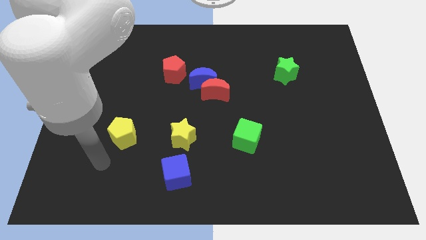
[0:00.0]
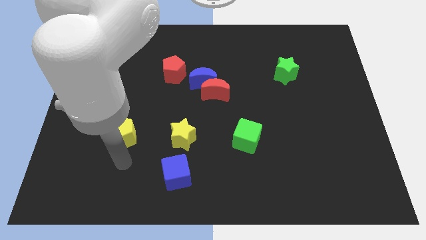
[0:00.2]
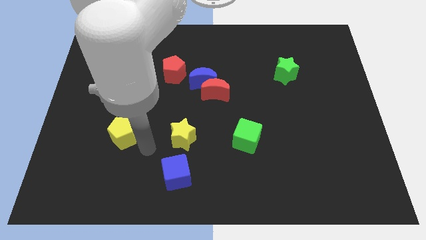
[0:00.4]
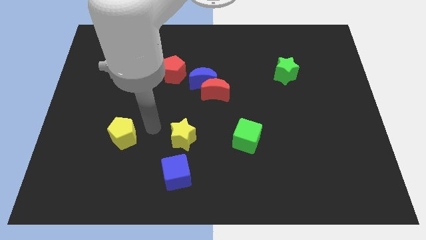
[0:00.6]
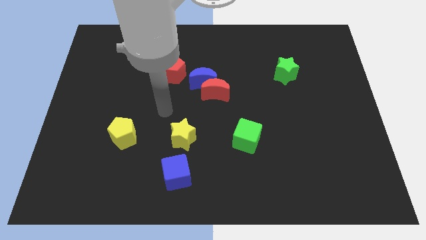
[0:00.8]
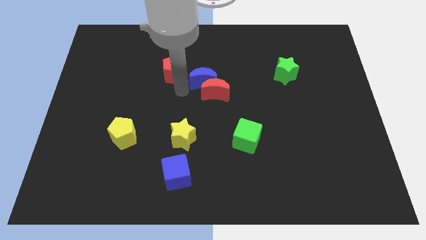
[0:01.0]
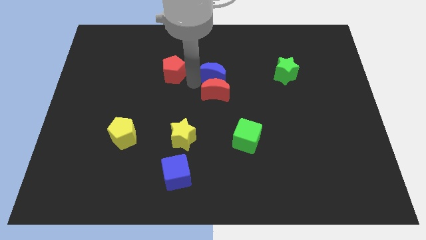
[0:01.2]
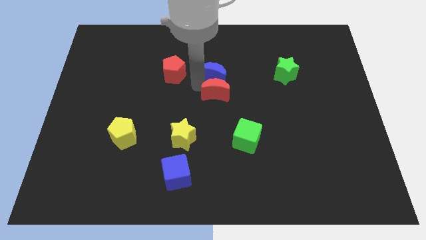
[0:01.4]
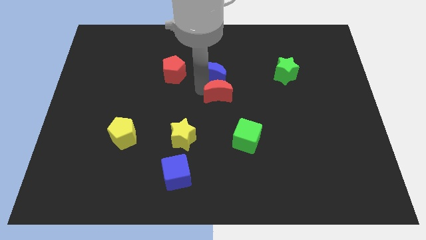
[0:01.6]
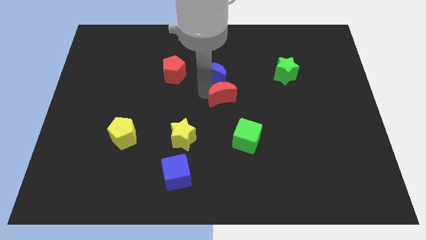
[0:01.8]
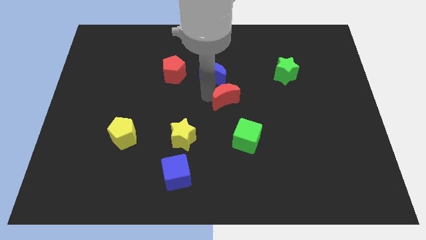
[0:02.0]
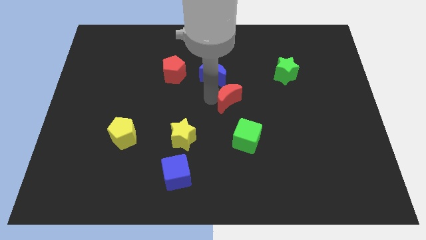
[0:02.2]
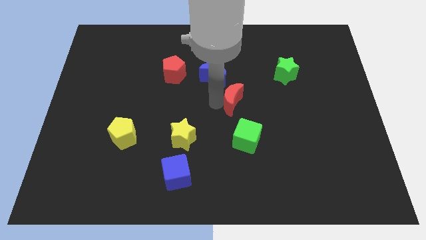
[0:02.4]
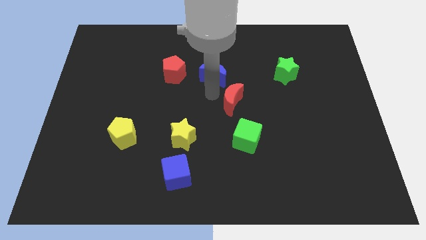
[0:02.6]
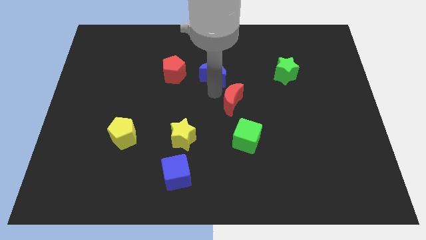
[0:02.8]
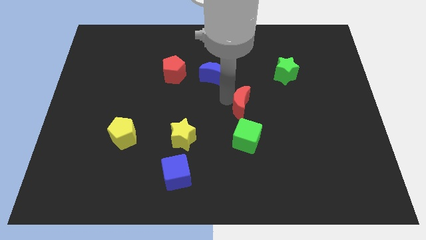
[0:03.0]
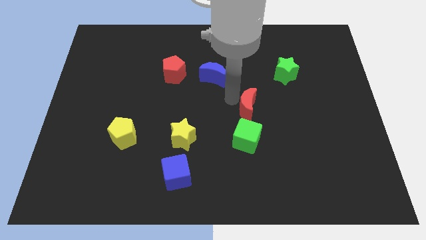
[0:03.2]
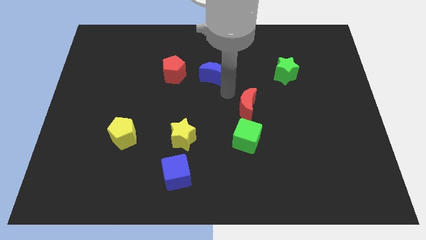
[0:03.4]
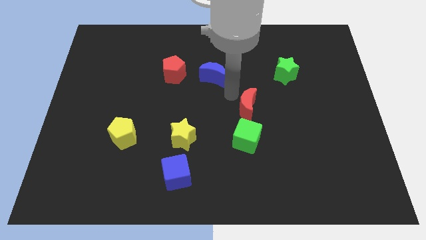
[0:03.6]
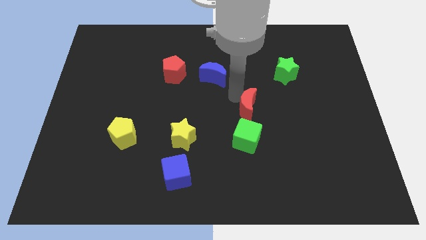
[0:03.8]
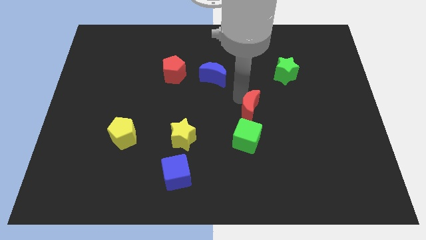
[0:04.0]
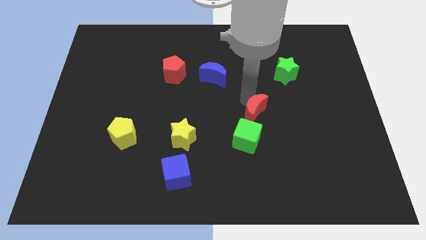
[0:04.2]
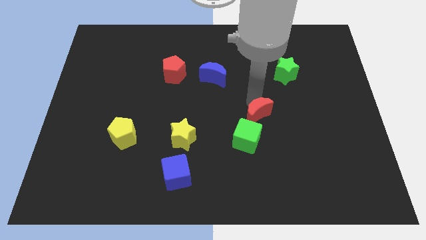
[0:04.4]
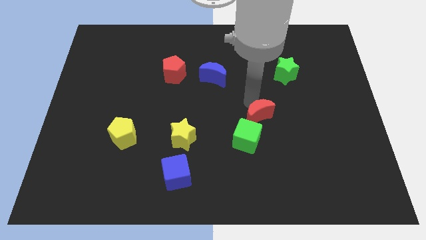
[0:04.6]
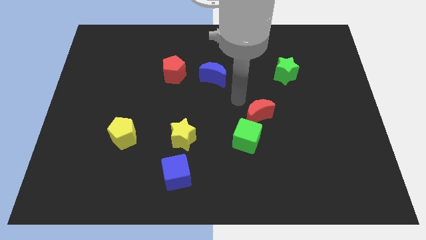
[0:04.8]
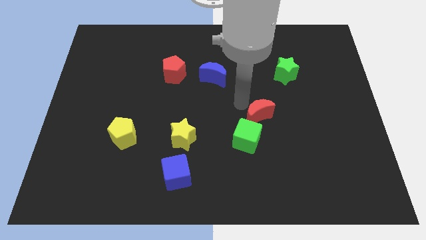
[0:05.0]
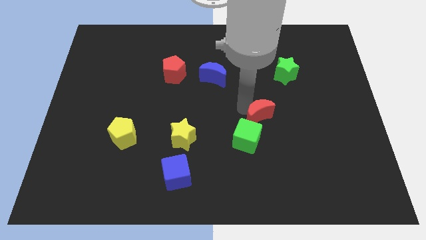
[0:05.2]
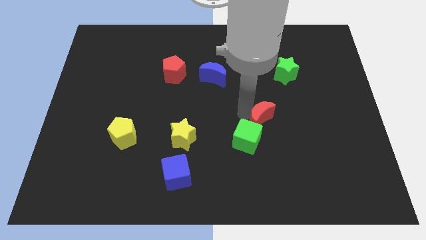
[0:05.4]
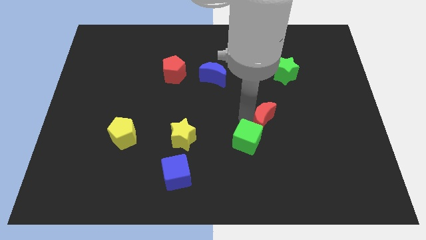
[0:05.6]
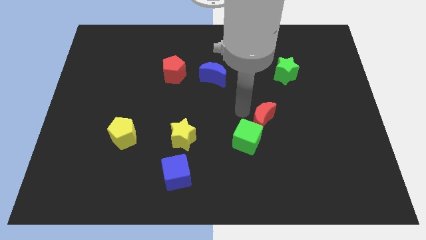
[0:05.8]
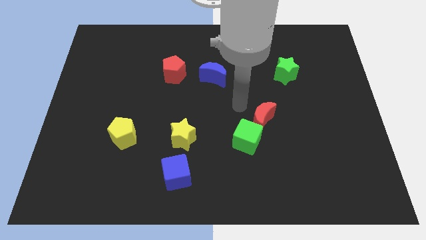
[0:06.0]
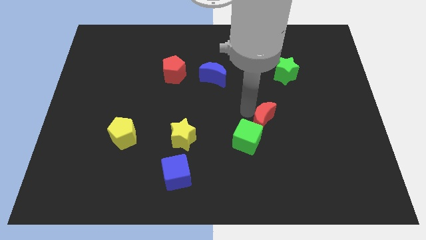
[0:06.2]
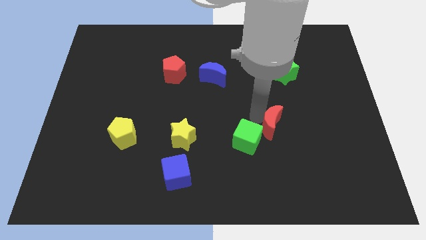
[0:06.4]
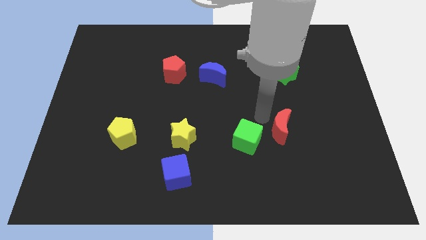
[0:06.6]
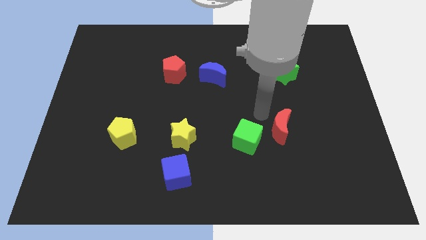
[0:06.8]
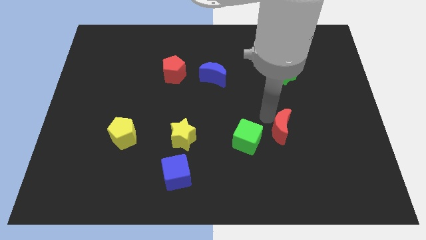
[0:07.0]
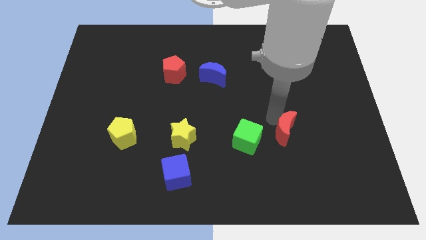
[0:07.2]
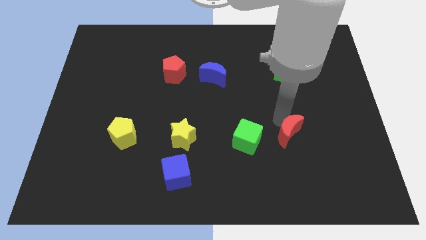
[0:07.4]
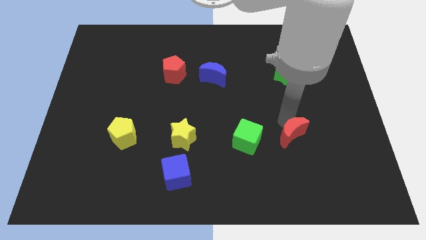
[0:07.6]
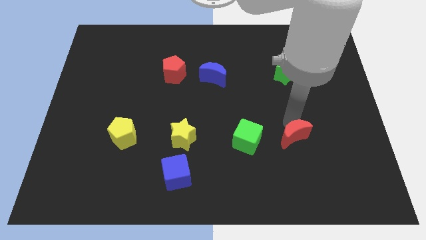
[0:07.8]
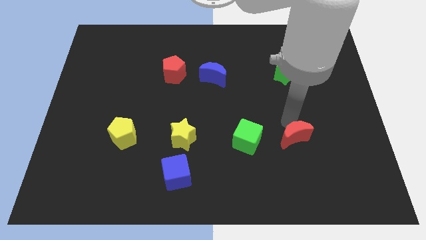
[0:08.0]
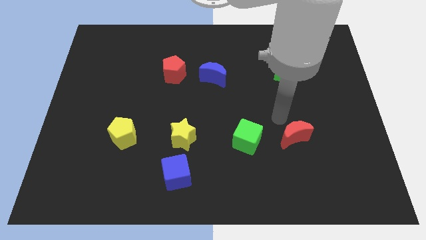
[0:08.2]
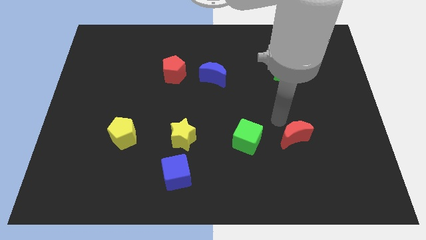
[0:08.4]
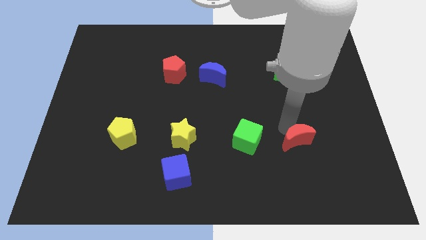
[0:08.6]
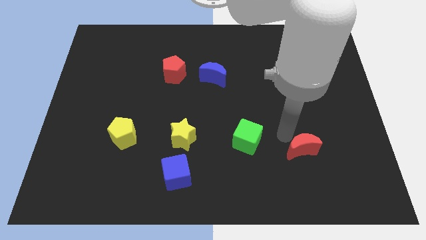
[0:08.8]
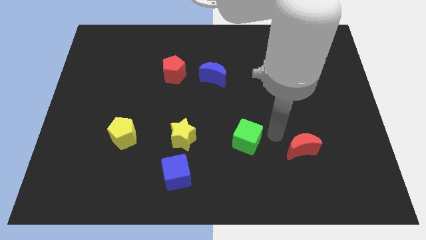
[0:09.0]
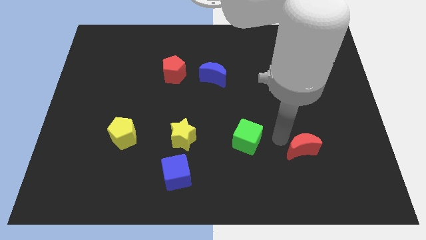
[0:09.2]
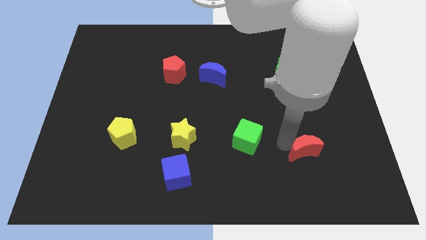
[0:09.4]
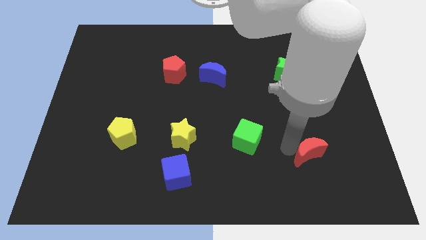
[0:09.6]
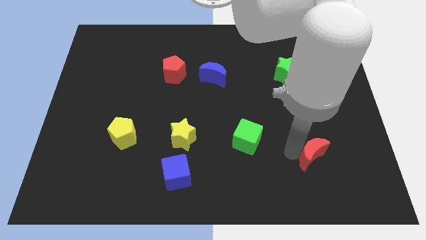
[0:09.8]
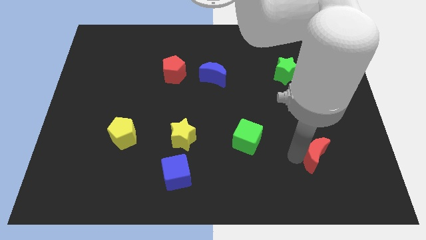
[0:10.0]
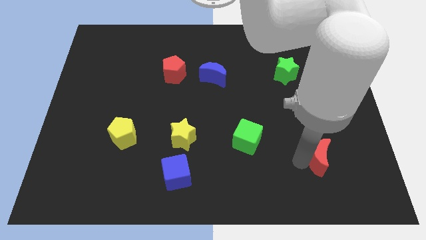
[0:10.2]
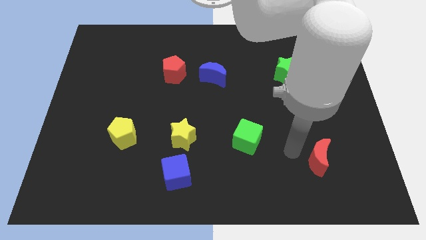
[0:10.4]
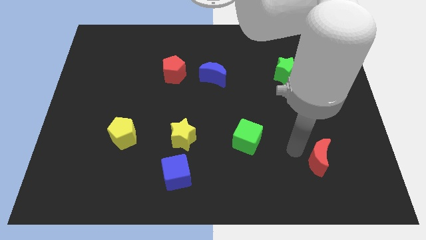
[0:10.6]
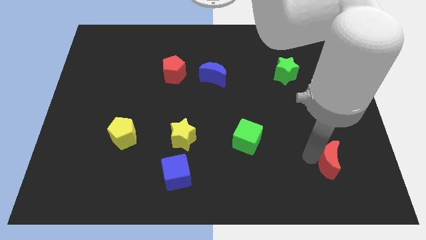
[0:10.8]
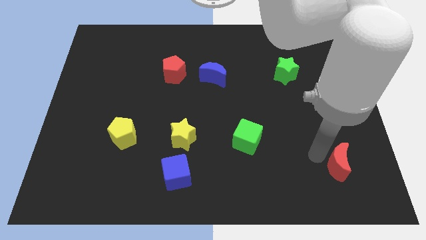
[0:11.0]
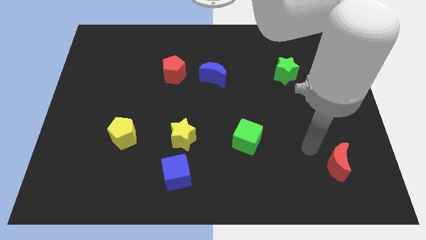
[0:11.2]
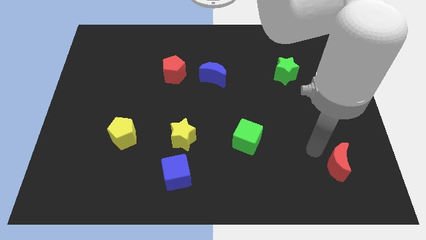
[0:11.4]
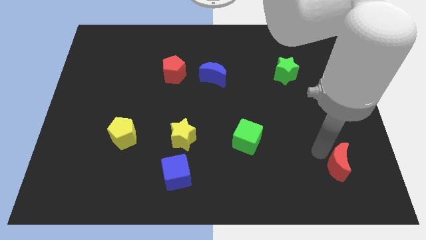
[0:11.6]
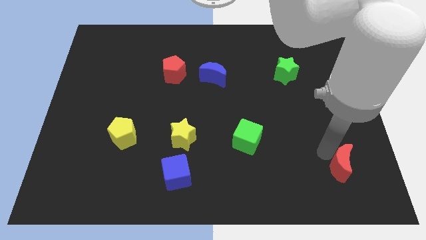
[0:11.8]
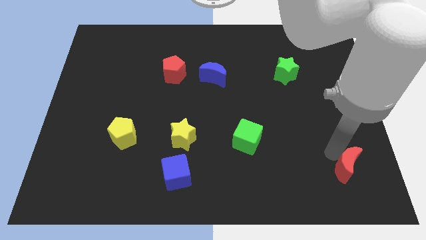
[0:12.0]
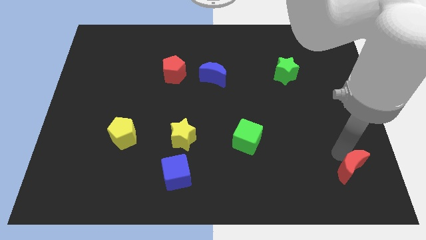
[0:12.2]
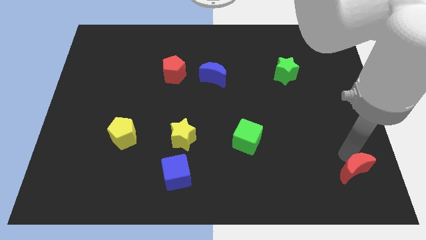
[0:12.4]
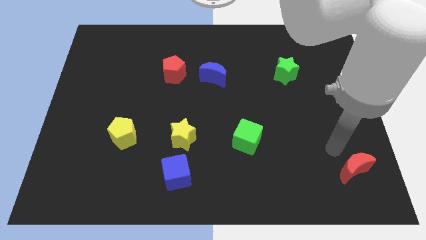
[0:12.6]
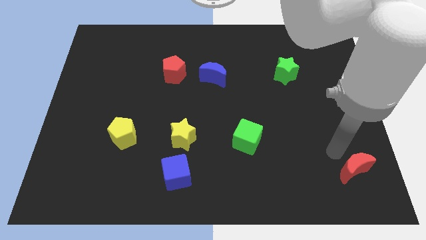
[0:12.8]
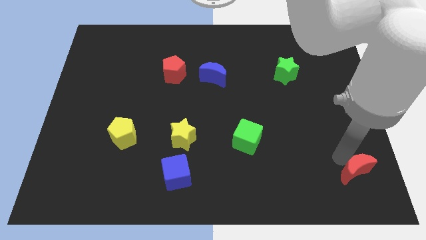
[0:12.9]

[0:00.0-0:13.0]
push the red moon to the bottom right of the board

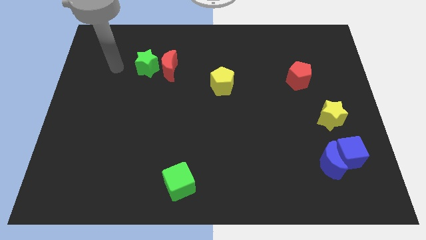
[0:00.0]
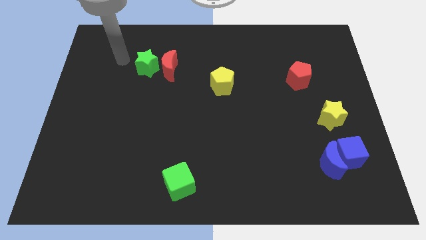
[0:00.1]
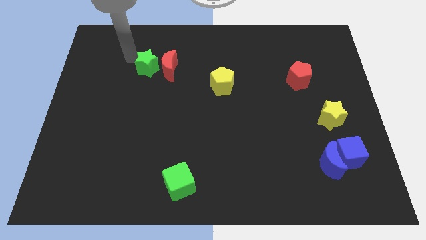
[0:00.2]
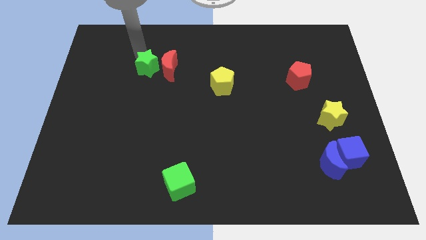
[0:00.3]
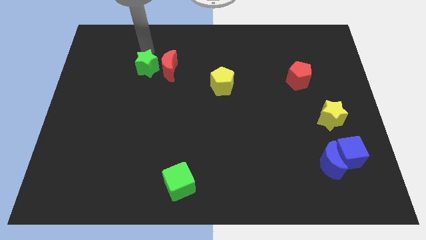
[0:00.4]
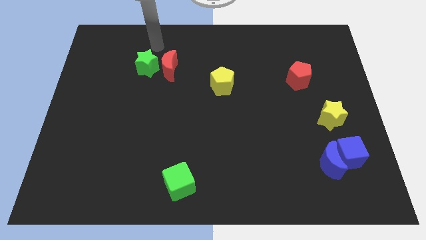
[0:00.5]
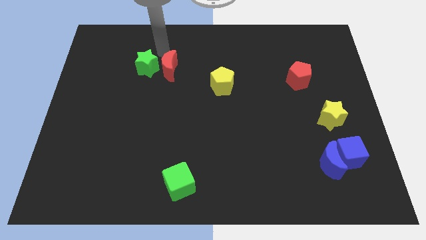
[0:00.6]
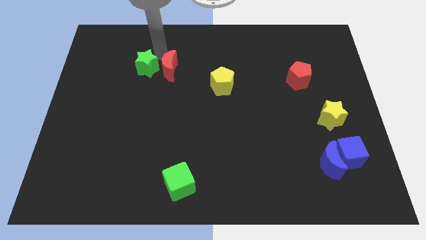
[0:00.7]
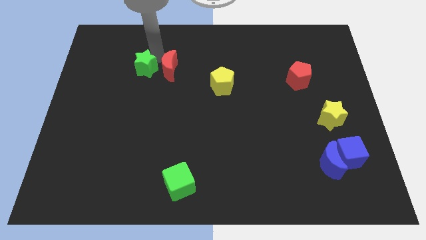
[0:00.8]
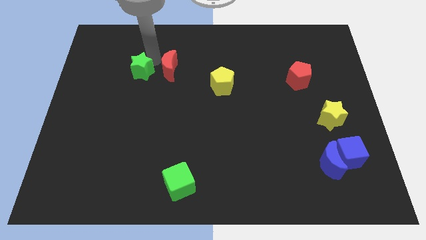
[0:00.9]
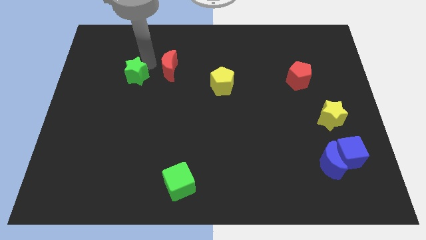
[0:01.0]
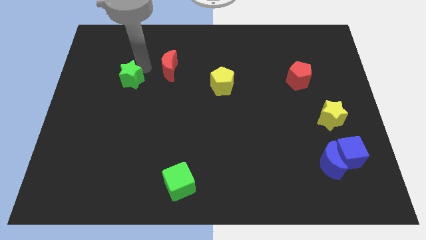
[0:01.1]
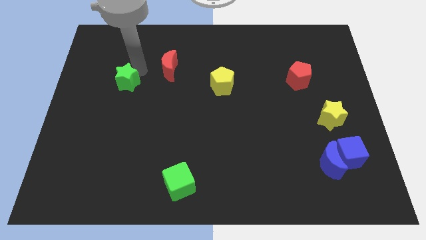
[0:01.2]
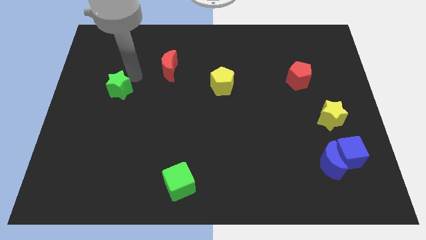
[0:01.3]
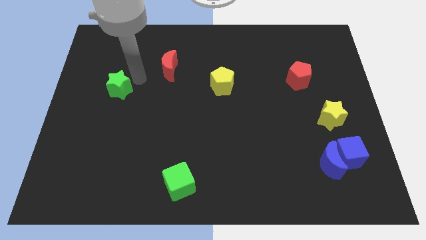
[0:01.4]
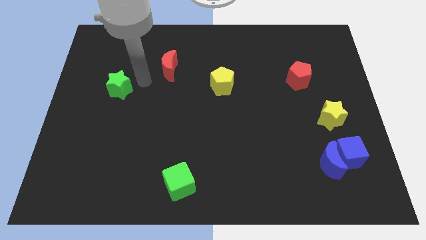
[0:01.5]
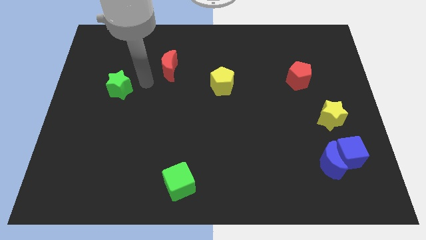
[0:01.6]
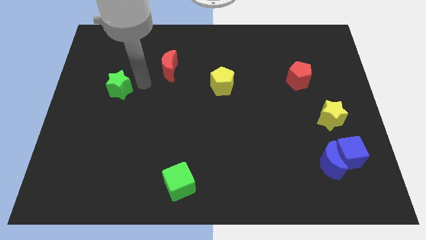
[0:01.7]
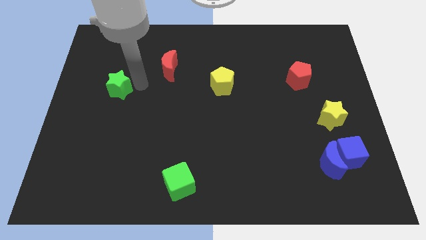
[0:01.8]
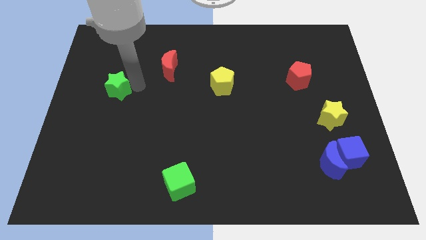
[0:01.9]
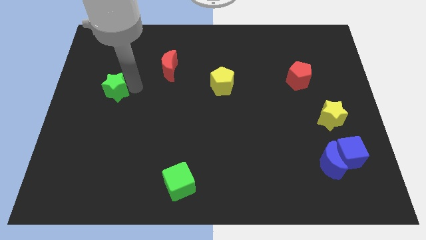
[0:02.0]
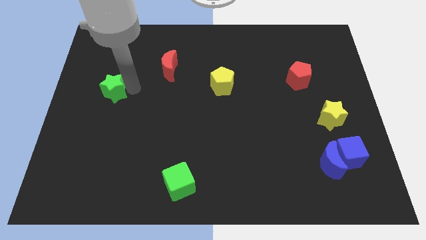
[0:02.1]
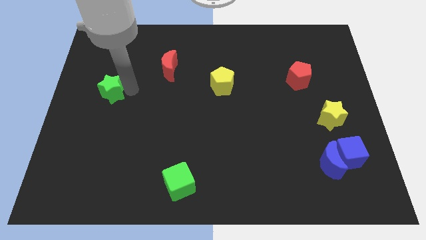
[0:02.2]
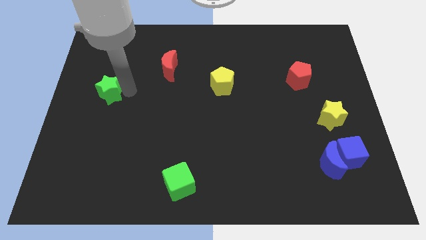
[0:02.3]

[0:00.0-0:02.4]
move the green star to the center left
